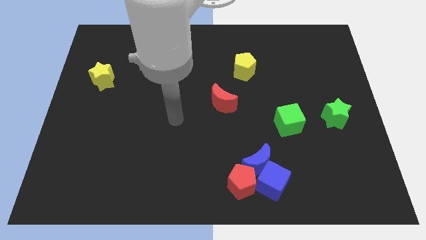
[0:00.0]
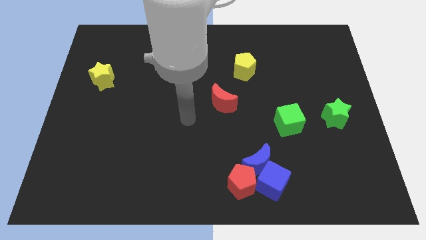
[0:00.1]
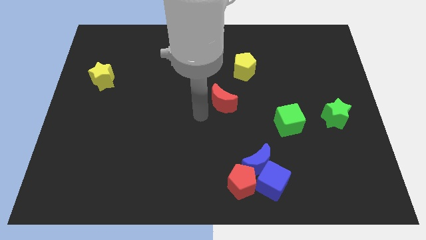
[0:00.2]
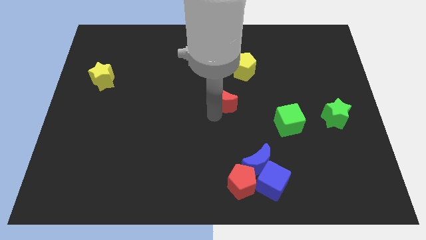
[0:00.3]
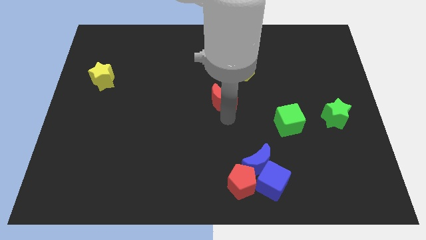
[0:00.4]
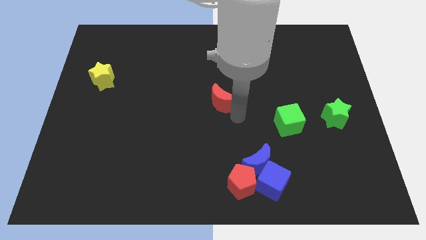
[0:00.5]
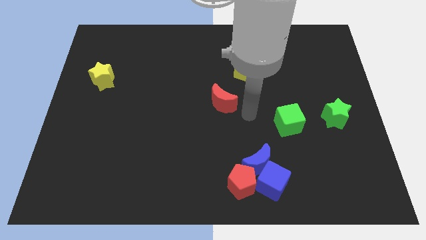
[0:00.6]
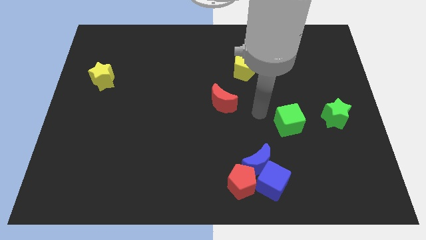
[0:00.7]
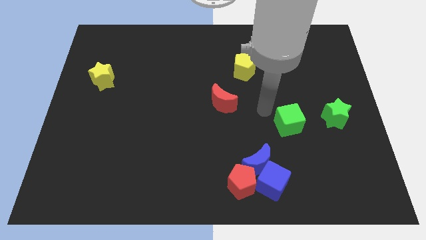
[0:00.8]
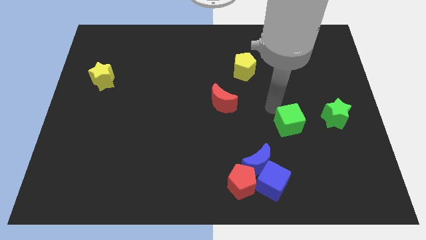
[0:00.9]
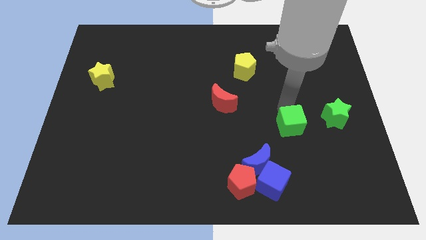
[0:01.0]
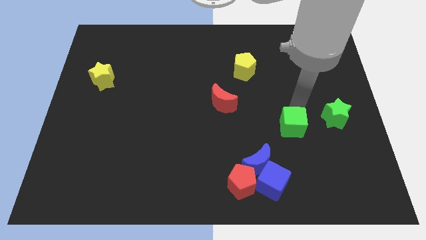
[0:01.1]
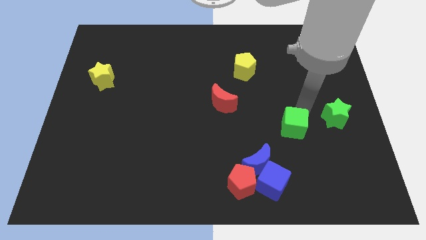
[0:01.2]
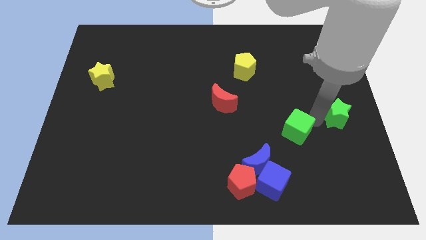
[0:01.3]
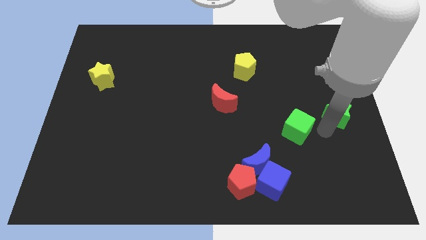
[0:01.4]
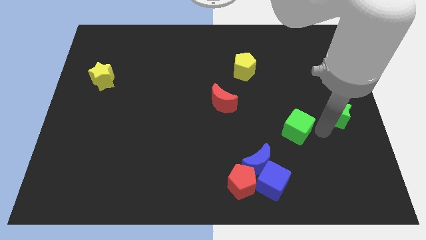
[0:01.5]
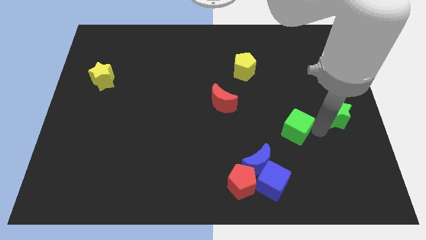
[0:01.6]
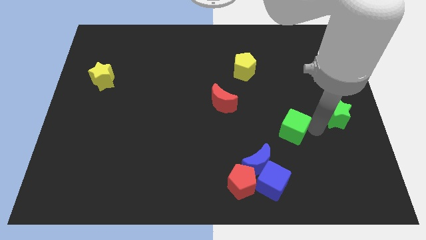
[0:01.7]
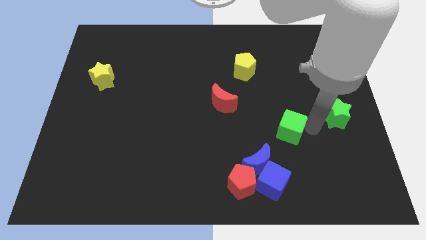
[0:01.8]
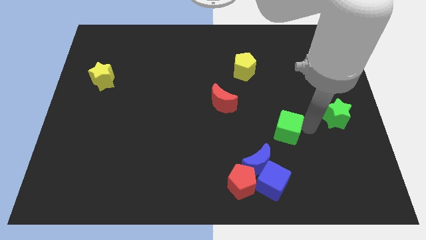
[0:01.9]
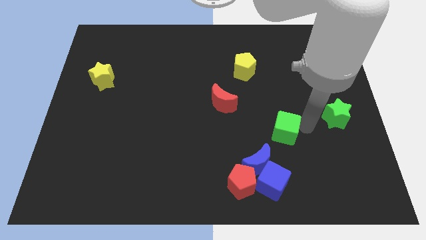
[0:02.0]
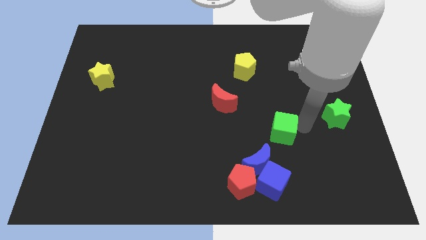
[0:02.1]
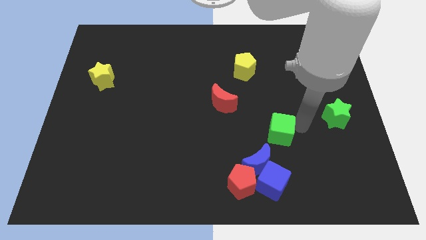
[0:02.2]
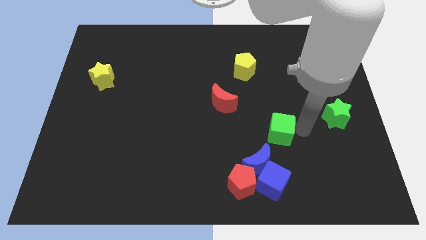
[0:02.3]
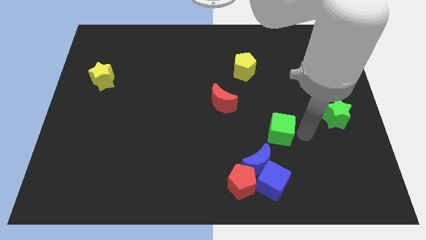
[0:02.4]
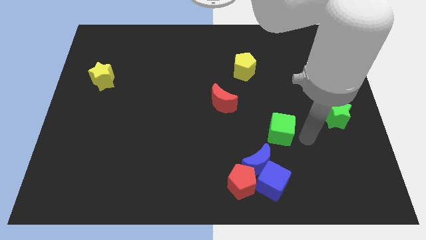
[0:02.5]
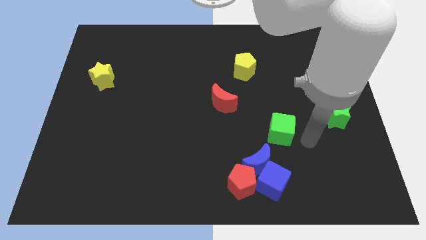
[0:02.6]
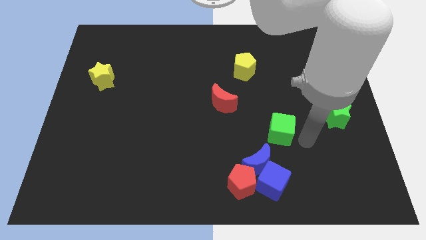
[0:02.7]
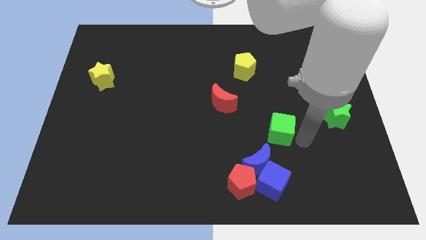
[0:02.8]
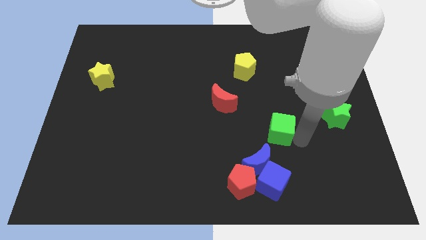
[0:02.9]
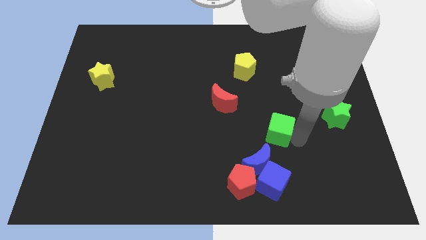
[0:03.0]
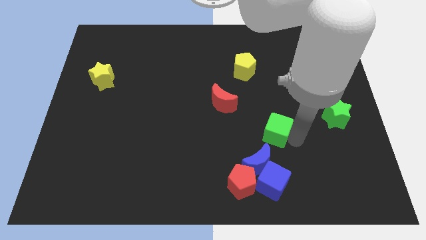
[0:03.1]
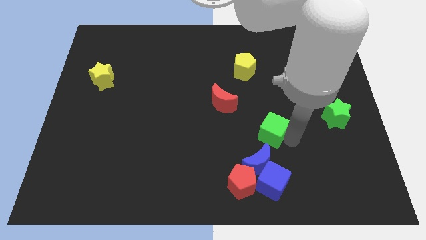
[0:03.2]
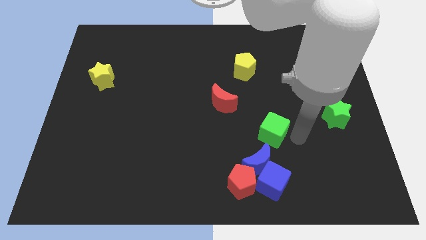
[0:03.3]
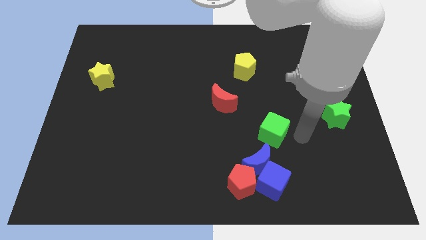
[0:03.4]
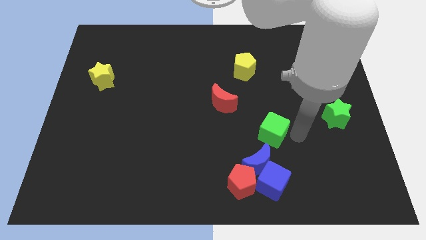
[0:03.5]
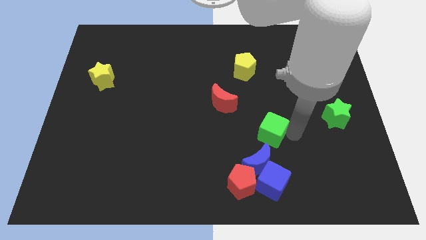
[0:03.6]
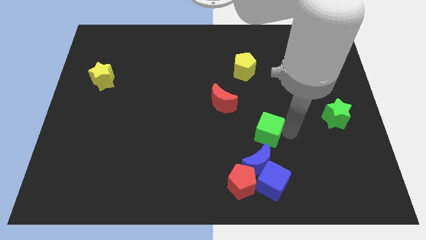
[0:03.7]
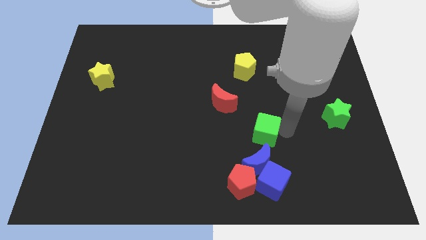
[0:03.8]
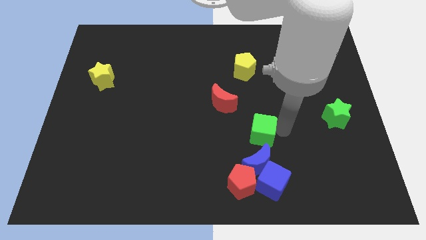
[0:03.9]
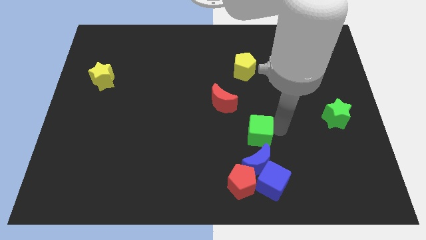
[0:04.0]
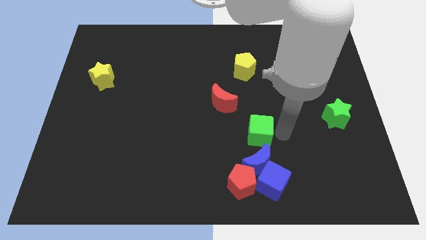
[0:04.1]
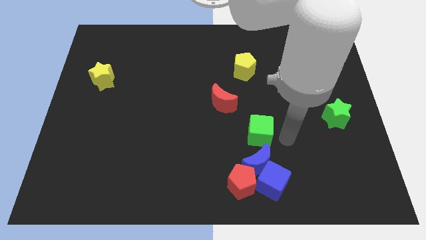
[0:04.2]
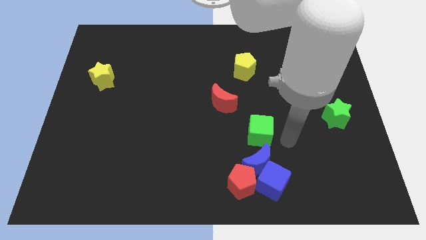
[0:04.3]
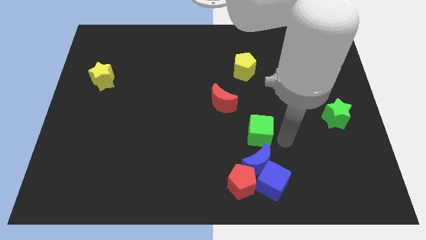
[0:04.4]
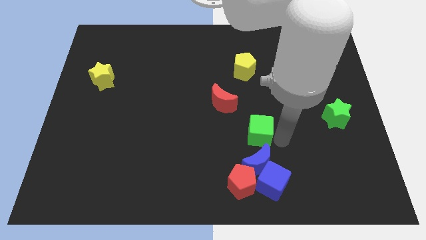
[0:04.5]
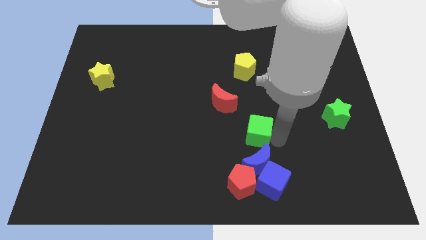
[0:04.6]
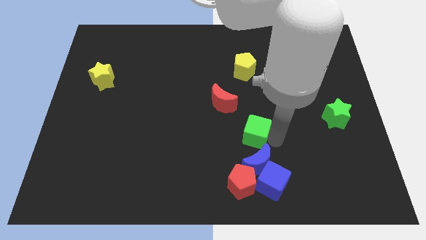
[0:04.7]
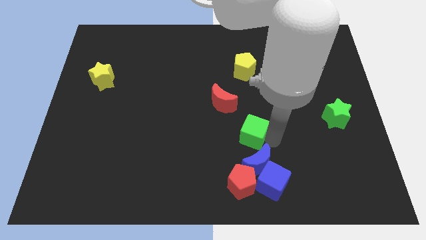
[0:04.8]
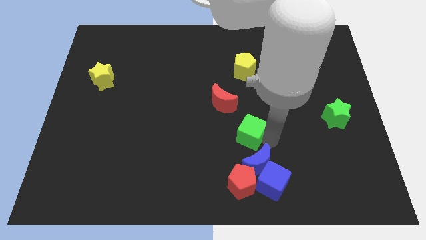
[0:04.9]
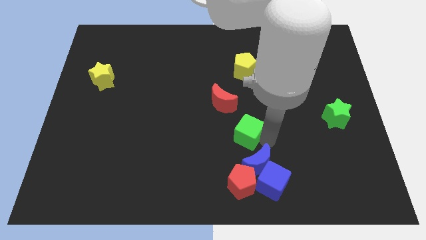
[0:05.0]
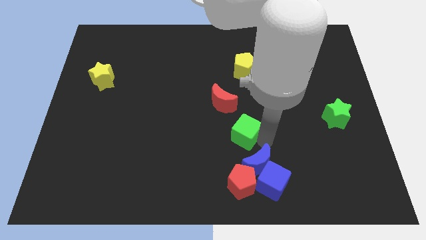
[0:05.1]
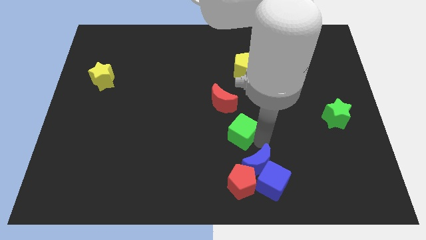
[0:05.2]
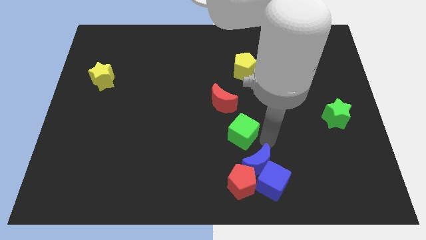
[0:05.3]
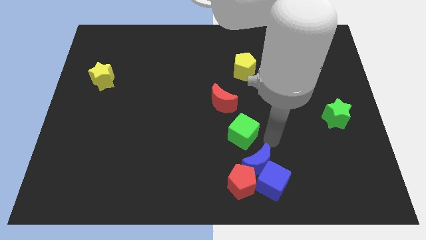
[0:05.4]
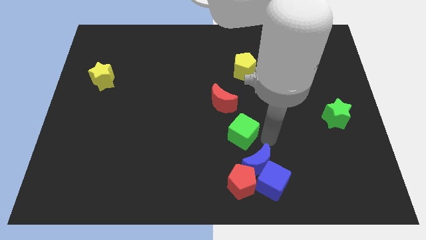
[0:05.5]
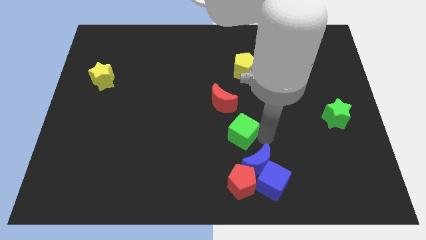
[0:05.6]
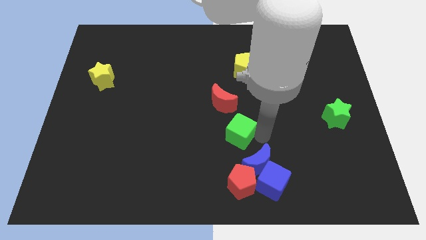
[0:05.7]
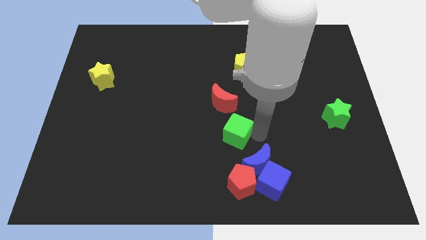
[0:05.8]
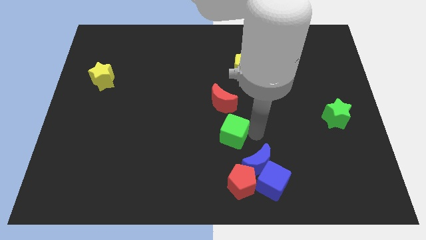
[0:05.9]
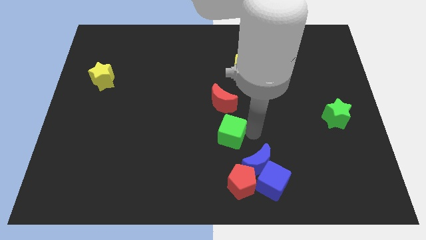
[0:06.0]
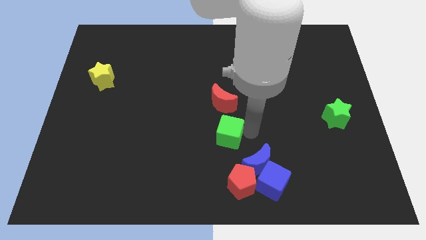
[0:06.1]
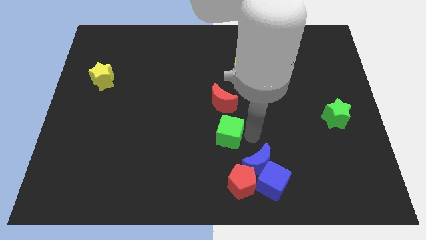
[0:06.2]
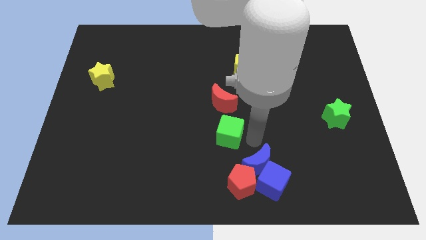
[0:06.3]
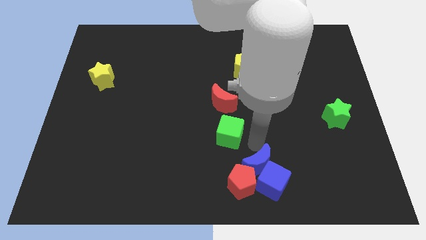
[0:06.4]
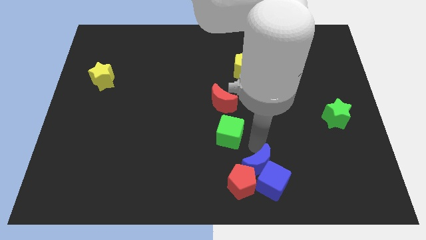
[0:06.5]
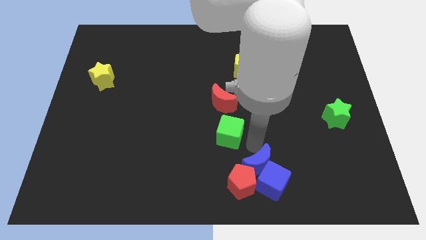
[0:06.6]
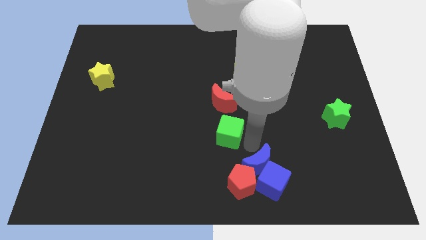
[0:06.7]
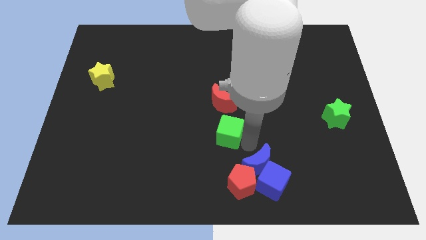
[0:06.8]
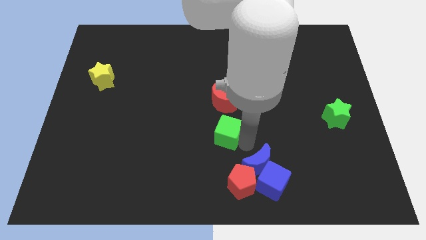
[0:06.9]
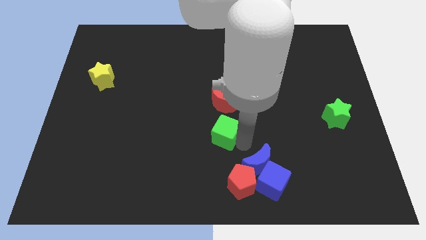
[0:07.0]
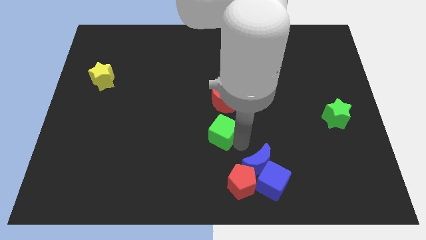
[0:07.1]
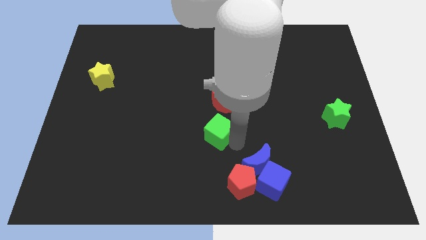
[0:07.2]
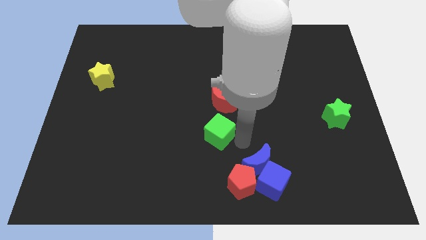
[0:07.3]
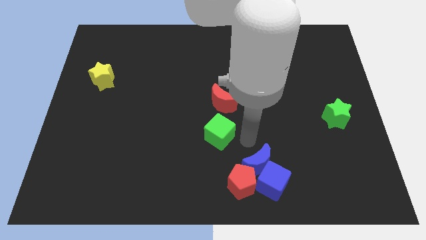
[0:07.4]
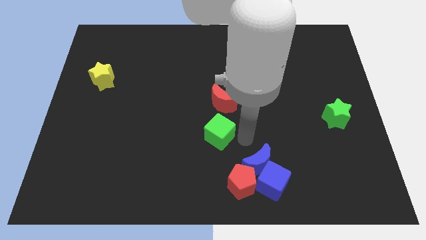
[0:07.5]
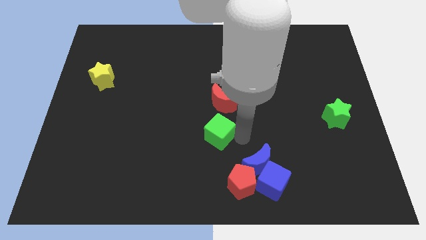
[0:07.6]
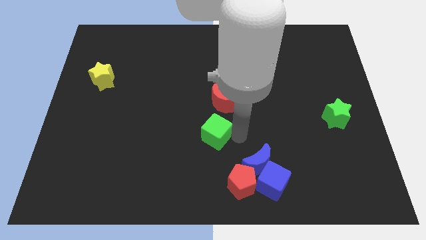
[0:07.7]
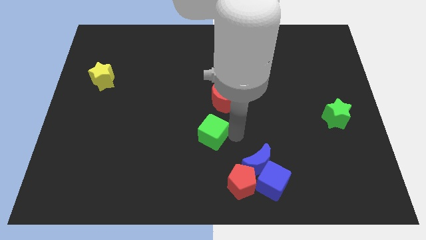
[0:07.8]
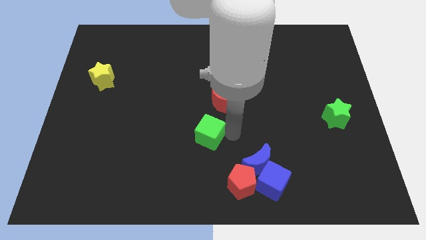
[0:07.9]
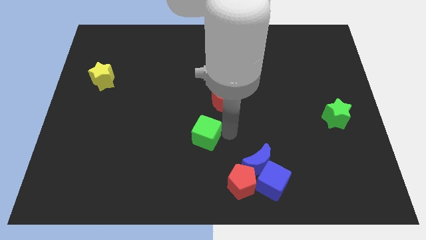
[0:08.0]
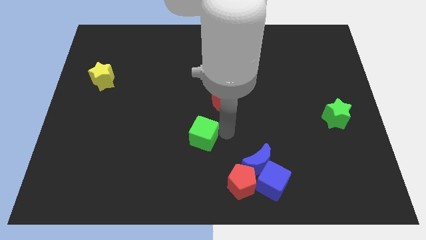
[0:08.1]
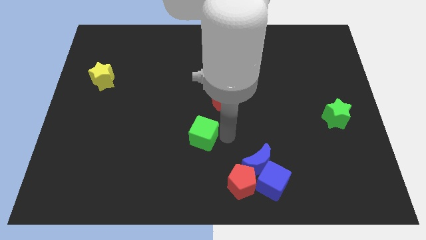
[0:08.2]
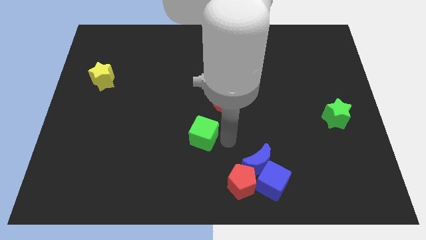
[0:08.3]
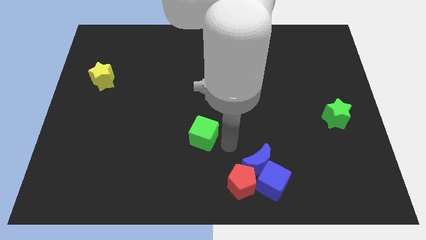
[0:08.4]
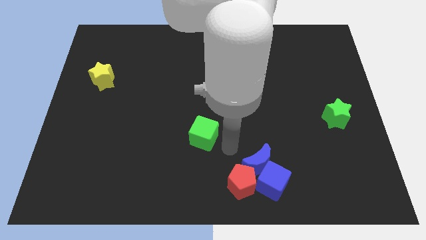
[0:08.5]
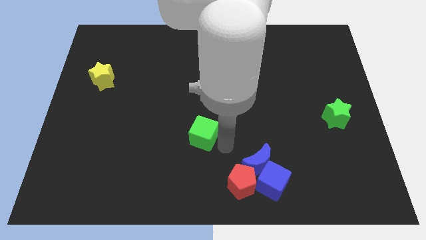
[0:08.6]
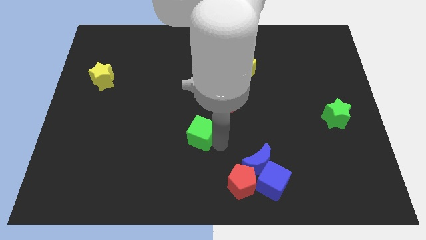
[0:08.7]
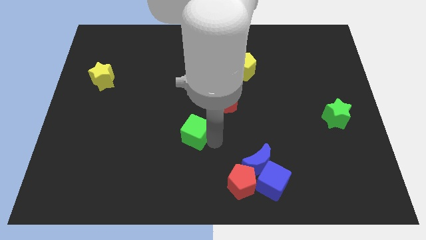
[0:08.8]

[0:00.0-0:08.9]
push the green cube to the left
